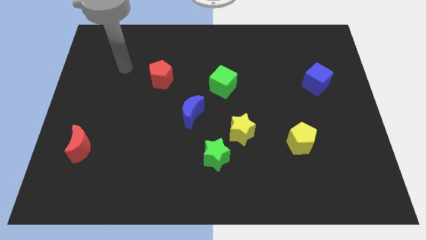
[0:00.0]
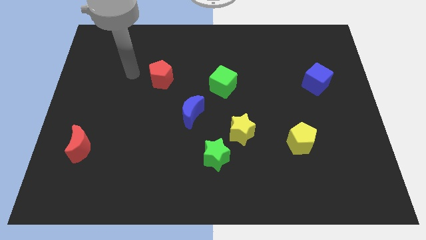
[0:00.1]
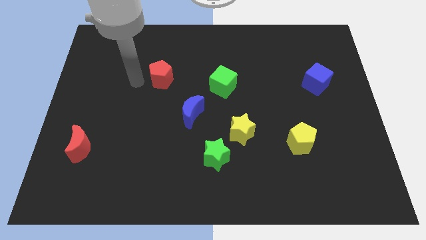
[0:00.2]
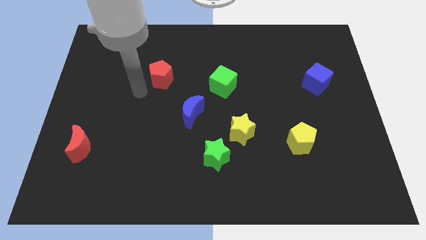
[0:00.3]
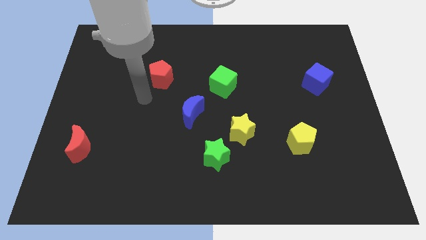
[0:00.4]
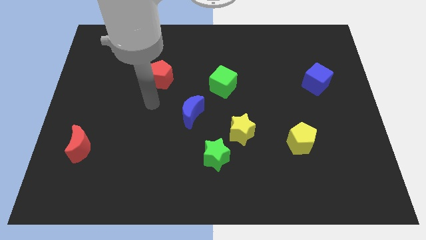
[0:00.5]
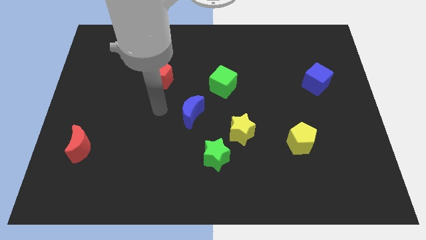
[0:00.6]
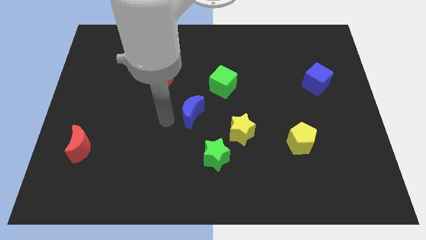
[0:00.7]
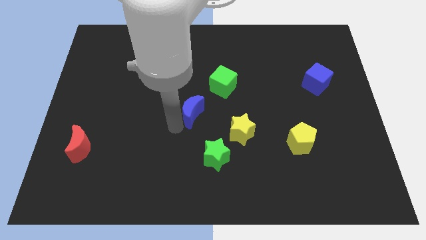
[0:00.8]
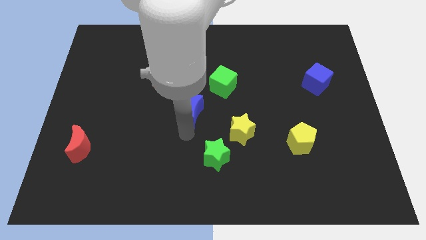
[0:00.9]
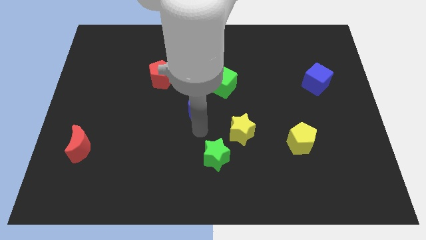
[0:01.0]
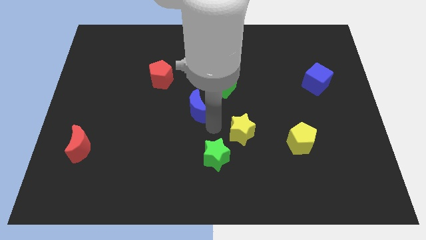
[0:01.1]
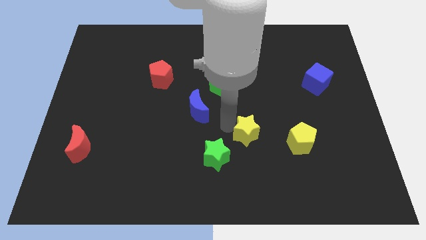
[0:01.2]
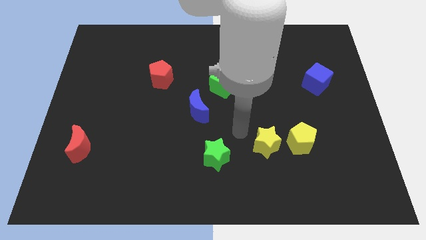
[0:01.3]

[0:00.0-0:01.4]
pull the green star apart from the yellow star

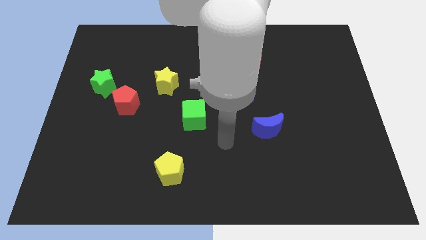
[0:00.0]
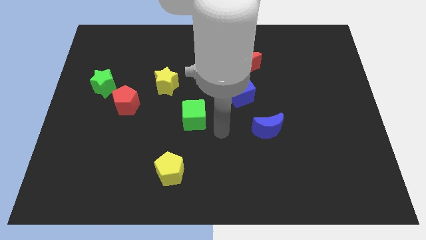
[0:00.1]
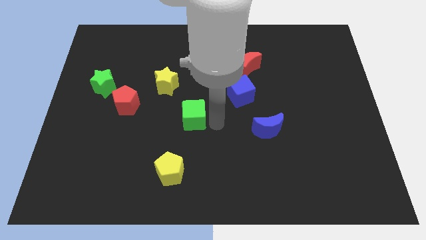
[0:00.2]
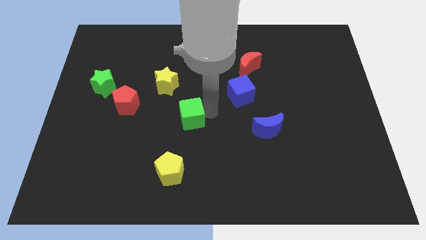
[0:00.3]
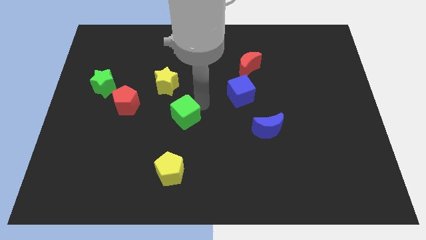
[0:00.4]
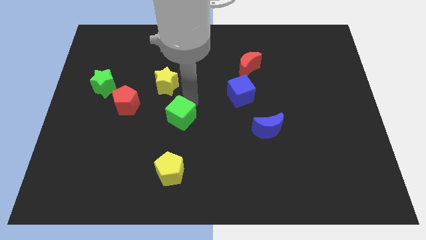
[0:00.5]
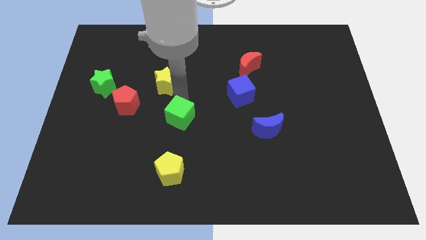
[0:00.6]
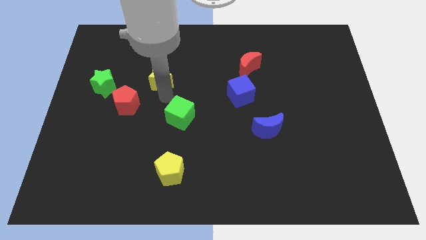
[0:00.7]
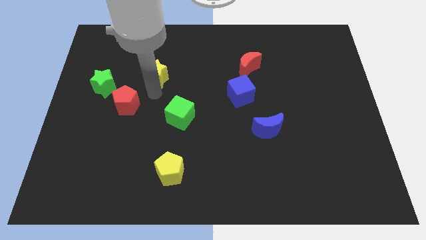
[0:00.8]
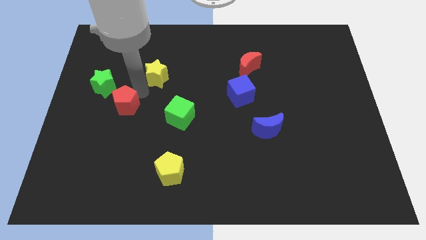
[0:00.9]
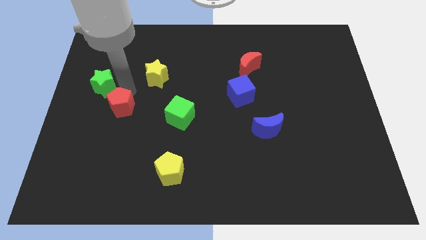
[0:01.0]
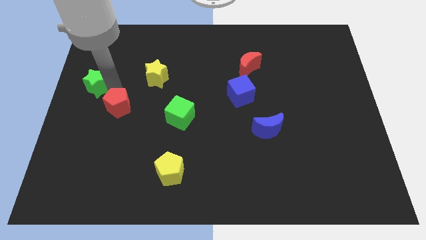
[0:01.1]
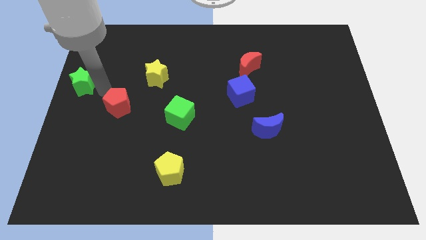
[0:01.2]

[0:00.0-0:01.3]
separate the red pentagon from the green star

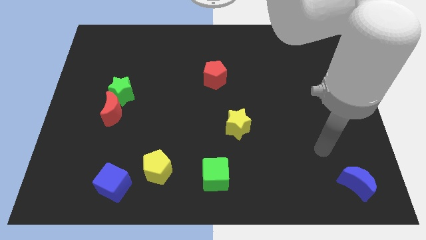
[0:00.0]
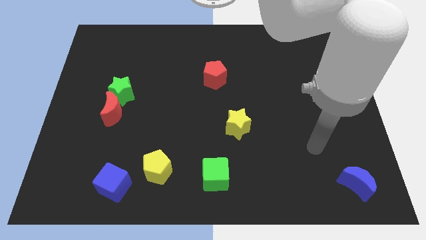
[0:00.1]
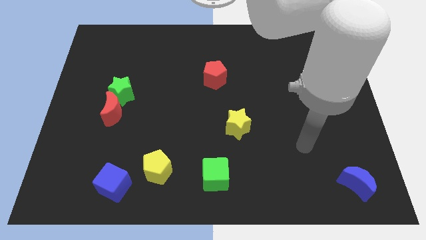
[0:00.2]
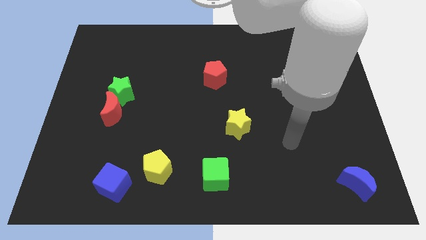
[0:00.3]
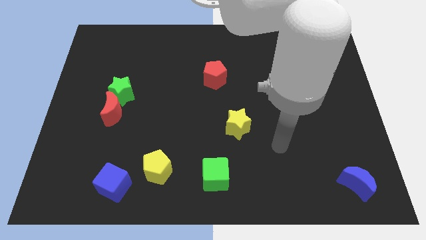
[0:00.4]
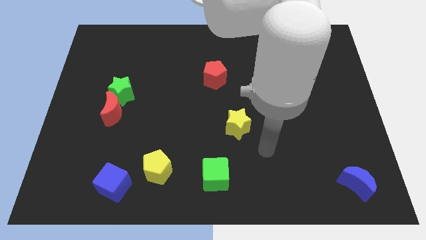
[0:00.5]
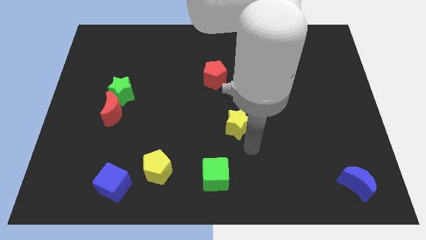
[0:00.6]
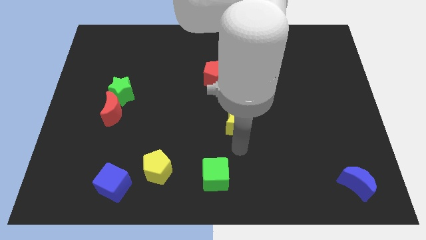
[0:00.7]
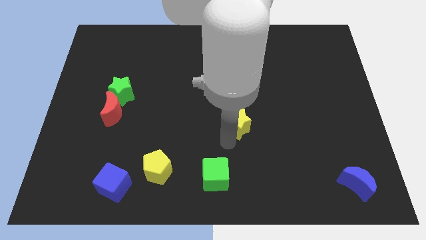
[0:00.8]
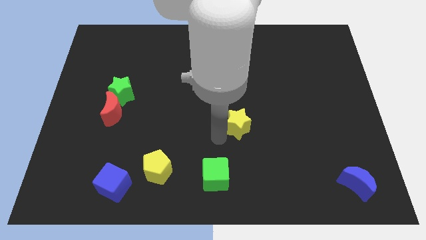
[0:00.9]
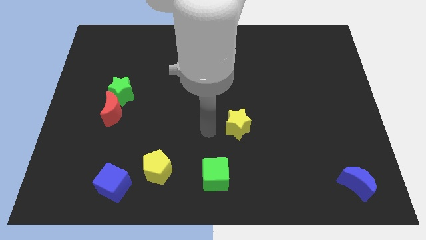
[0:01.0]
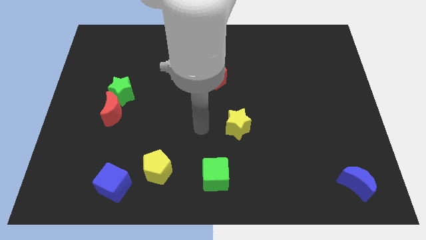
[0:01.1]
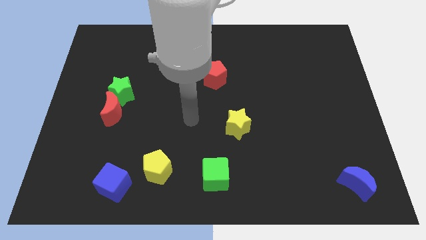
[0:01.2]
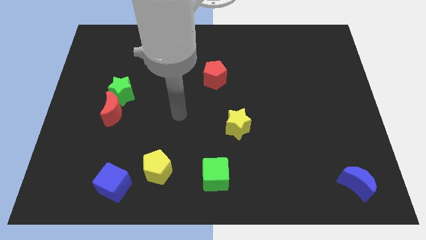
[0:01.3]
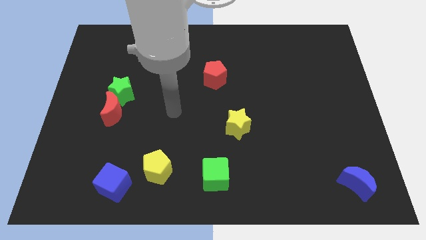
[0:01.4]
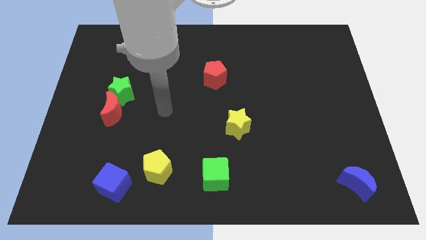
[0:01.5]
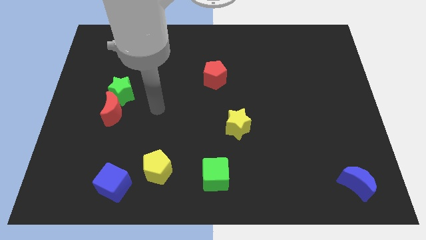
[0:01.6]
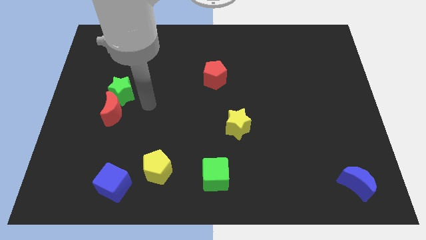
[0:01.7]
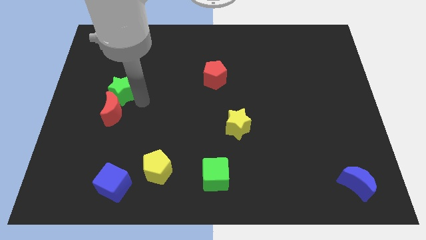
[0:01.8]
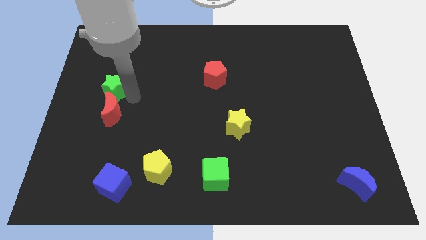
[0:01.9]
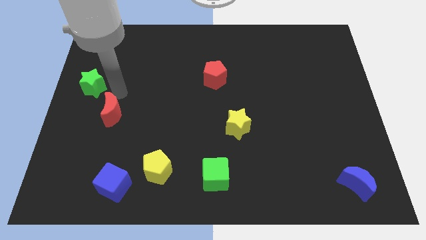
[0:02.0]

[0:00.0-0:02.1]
move the red moon away from the green star

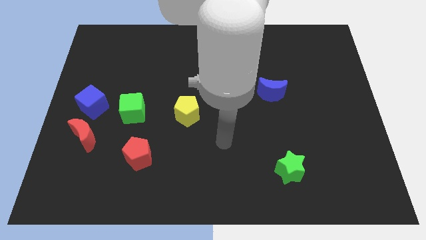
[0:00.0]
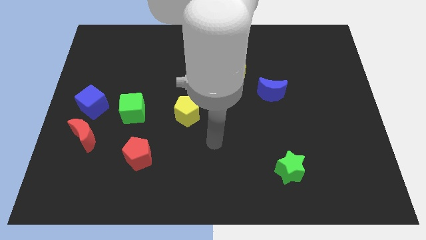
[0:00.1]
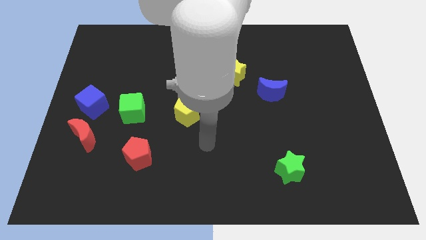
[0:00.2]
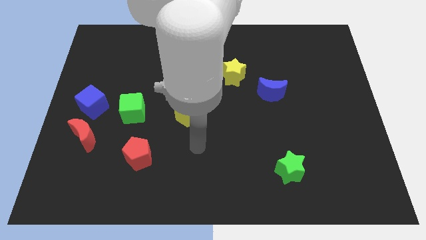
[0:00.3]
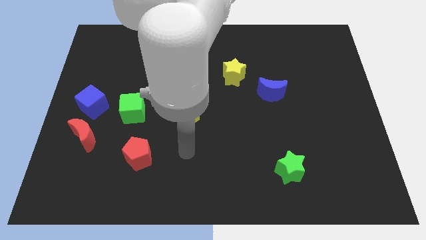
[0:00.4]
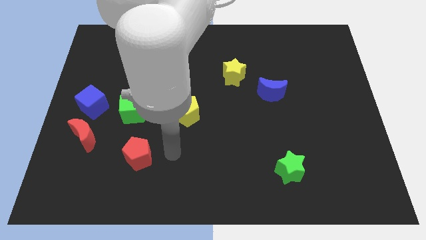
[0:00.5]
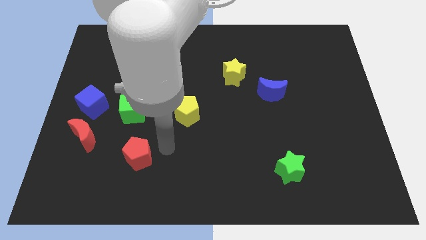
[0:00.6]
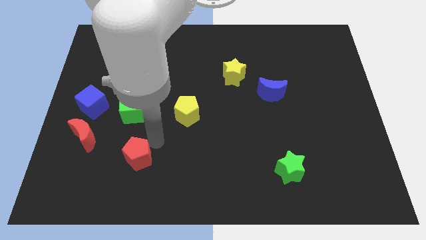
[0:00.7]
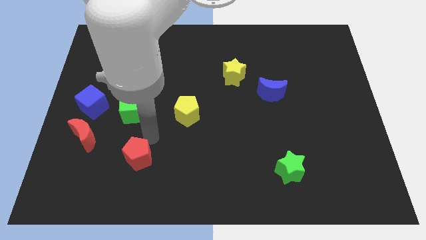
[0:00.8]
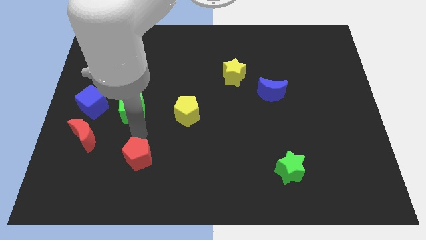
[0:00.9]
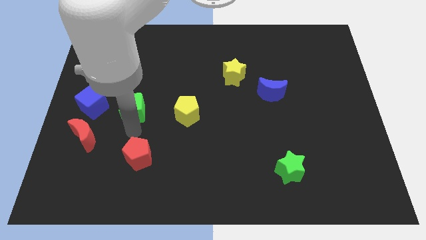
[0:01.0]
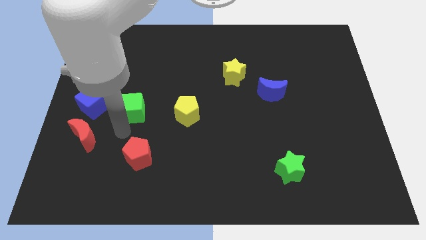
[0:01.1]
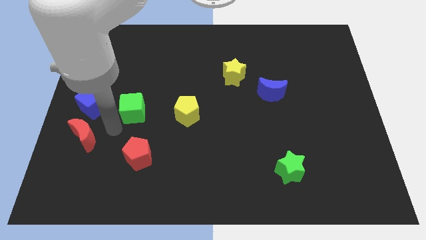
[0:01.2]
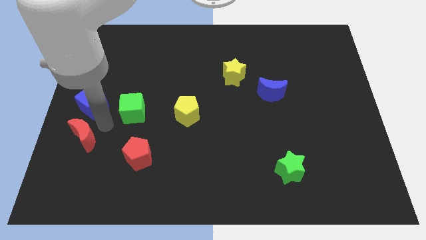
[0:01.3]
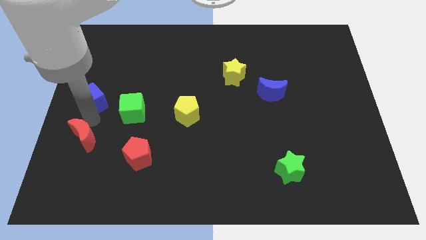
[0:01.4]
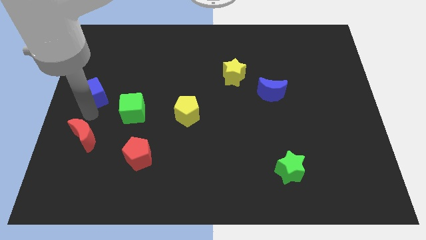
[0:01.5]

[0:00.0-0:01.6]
pull the red moon apart from the blue cube

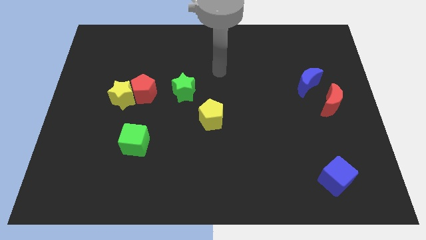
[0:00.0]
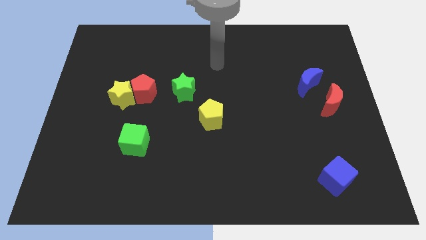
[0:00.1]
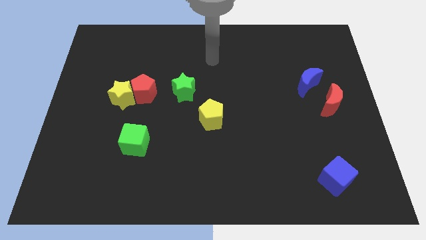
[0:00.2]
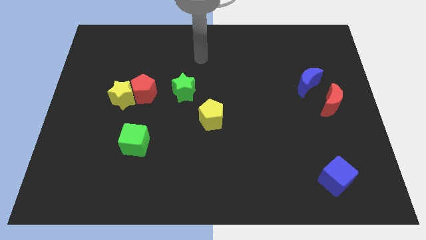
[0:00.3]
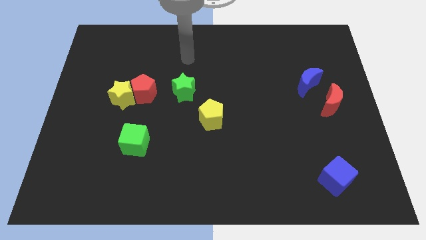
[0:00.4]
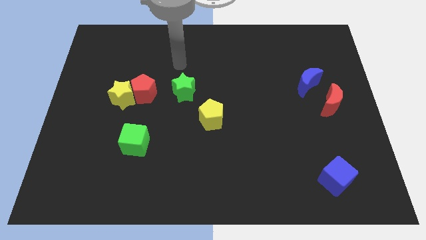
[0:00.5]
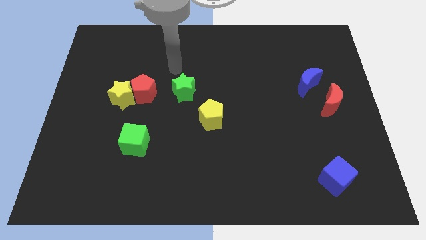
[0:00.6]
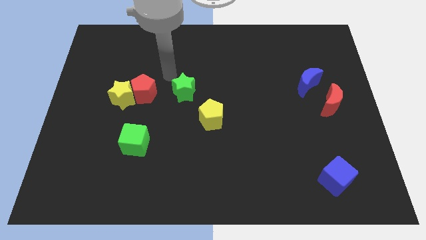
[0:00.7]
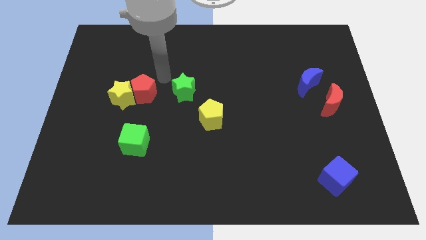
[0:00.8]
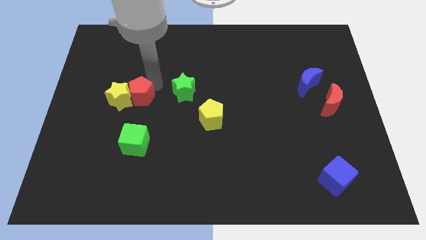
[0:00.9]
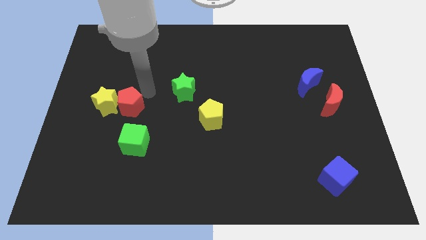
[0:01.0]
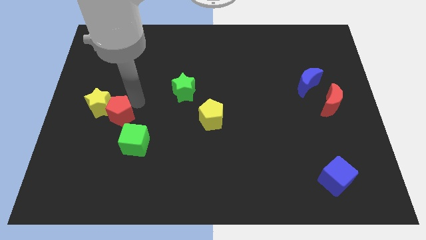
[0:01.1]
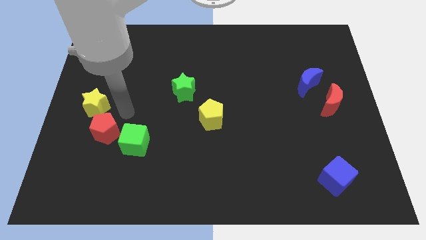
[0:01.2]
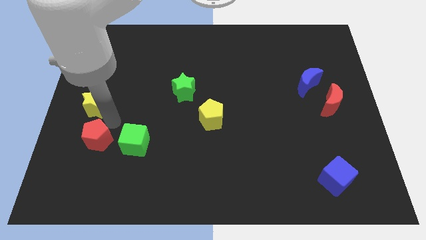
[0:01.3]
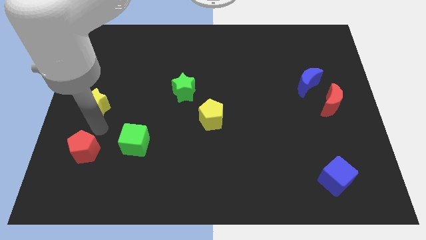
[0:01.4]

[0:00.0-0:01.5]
pull the yellow star apart from the red pentagon

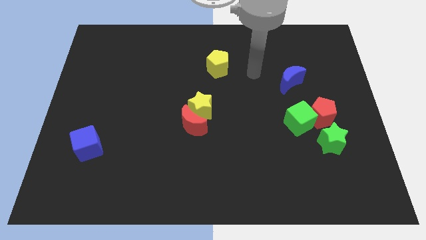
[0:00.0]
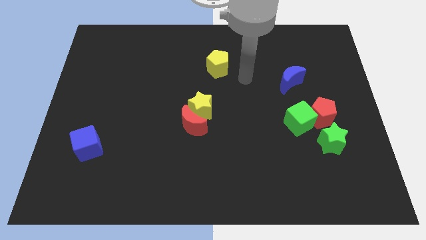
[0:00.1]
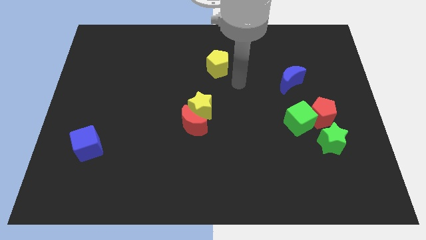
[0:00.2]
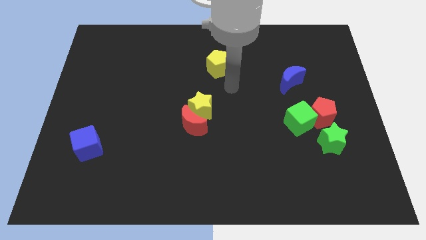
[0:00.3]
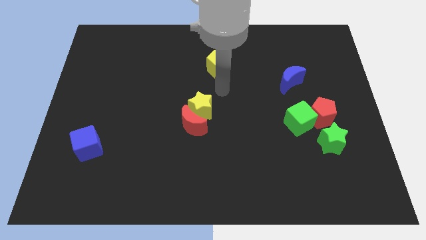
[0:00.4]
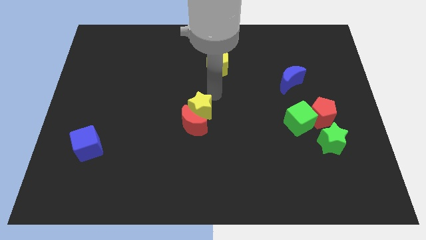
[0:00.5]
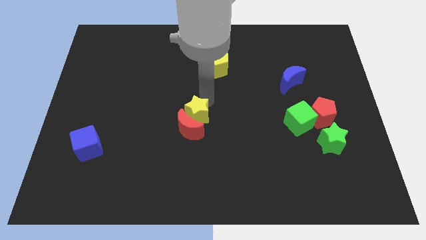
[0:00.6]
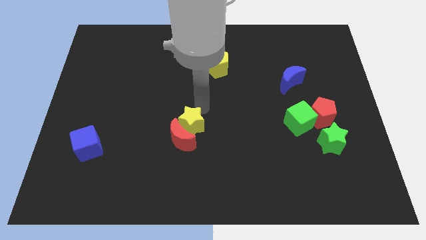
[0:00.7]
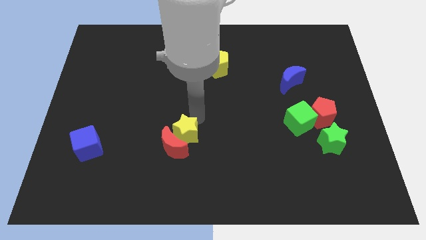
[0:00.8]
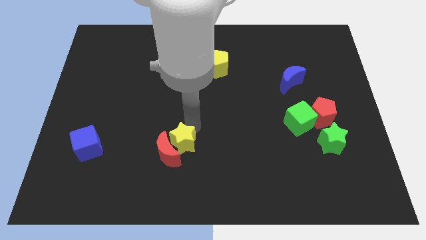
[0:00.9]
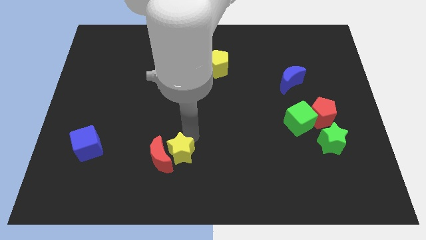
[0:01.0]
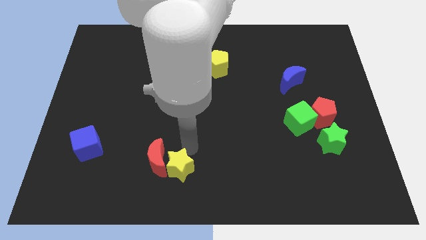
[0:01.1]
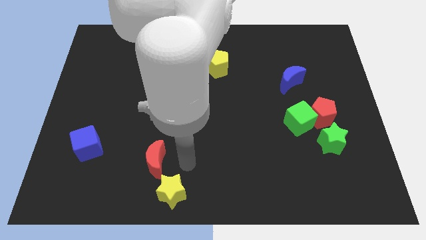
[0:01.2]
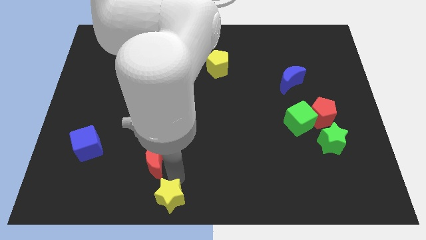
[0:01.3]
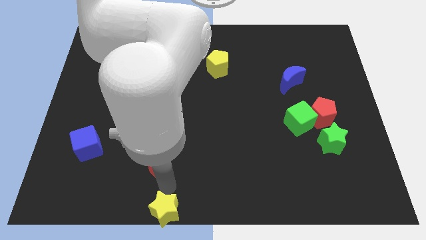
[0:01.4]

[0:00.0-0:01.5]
move the red moon away from the yellow star
